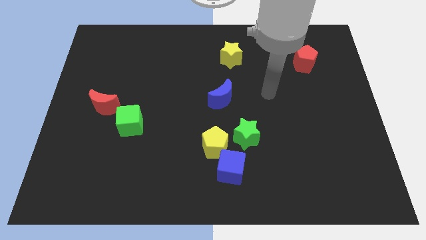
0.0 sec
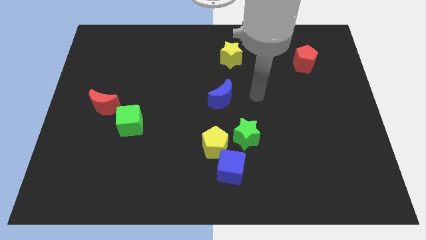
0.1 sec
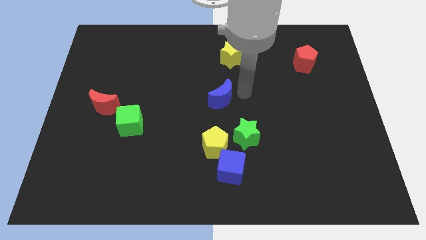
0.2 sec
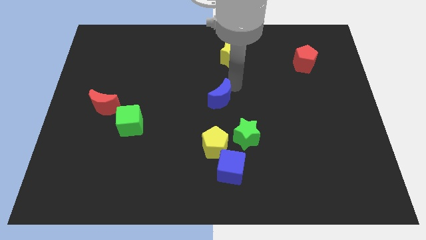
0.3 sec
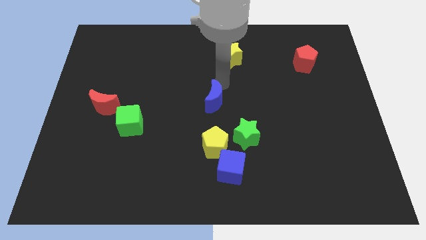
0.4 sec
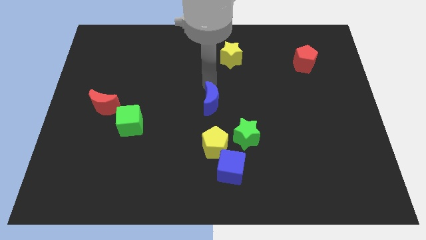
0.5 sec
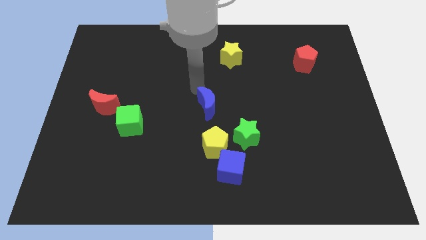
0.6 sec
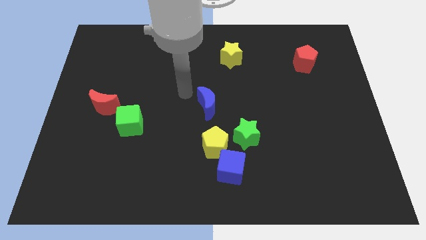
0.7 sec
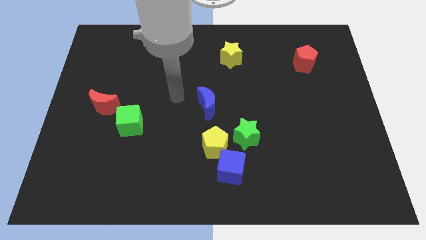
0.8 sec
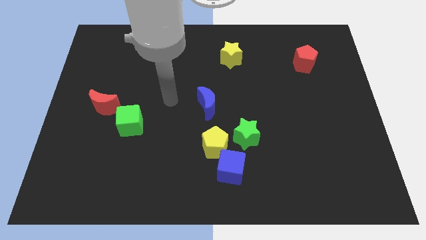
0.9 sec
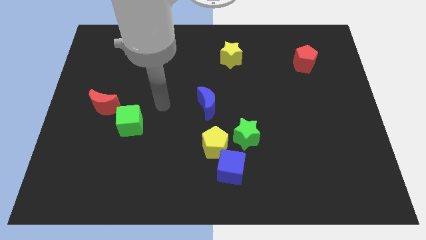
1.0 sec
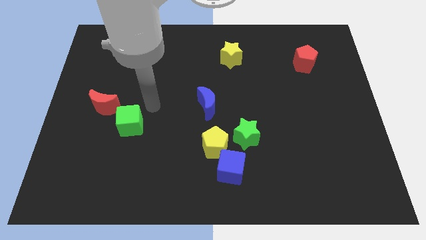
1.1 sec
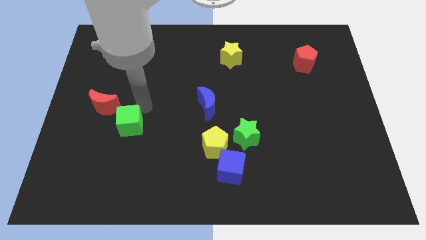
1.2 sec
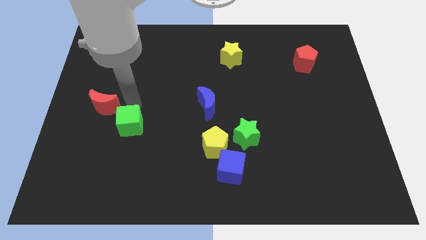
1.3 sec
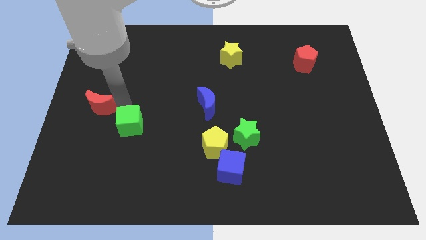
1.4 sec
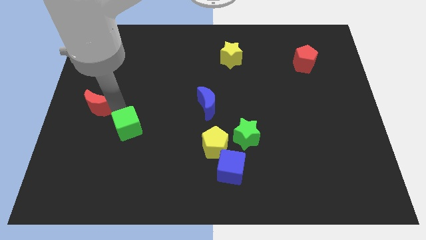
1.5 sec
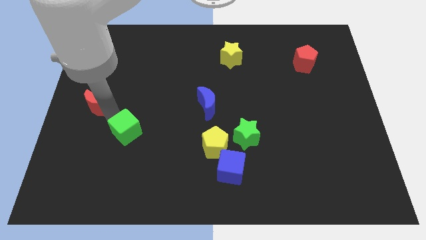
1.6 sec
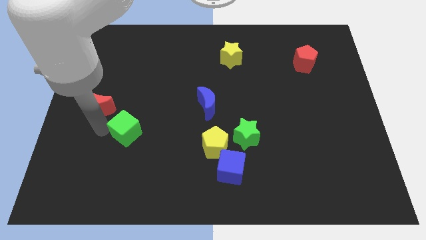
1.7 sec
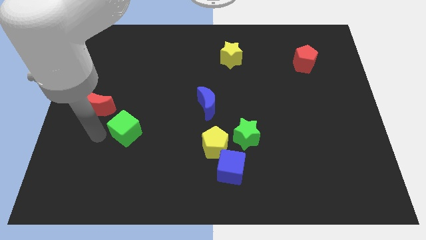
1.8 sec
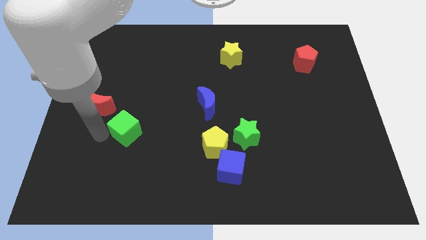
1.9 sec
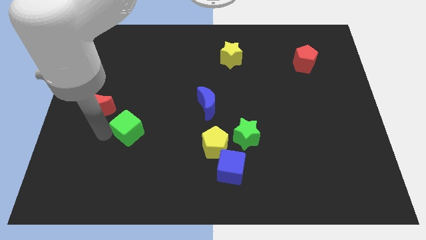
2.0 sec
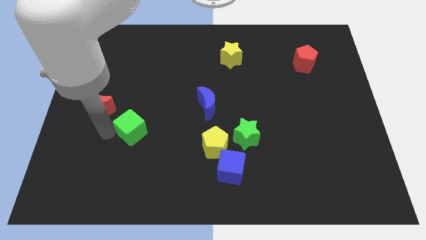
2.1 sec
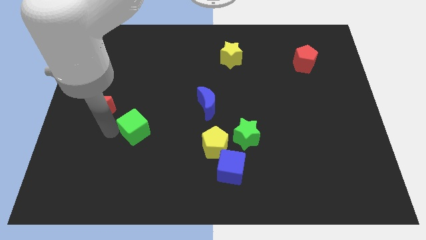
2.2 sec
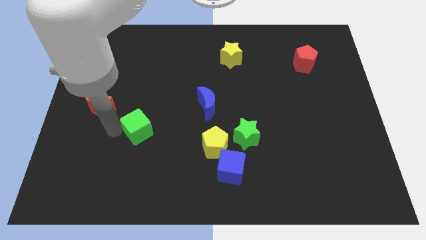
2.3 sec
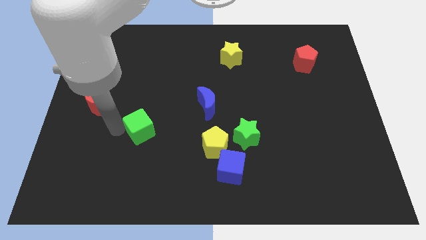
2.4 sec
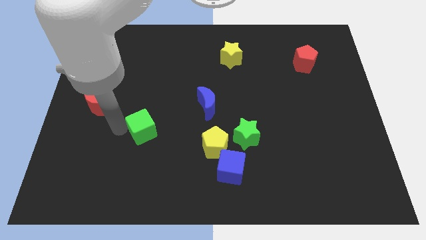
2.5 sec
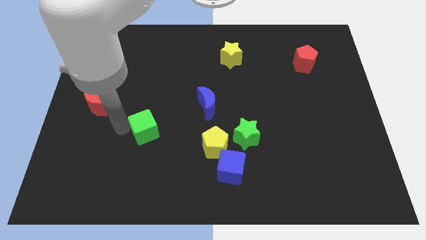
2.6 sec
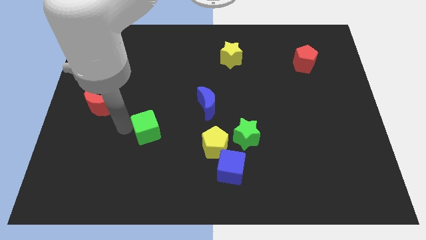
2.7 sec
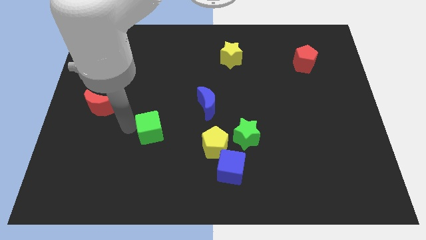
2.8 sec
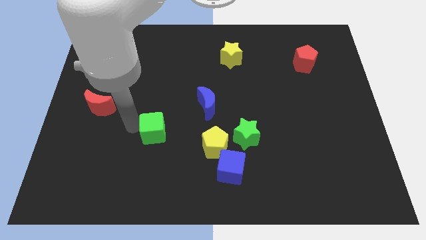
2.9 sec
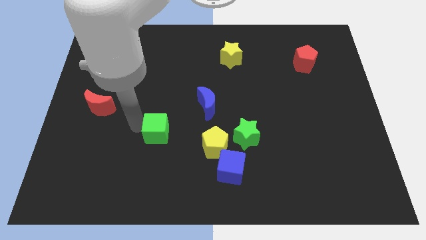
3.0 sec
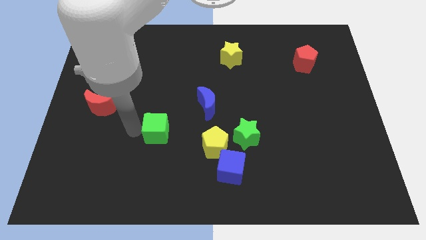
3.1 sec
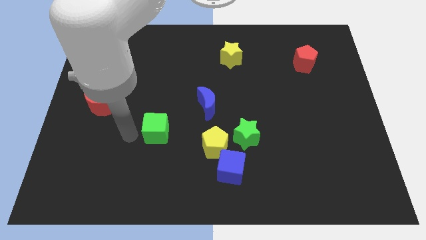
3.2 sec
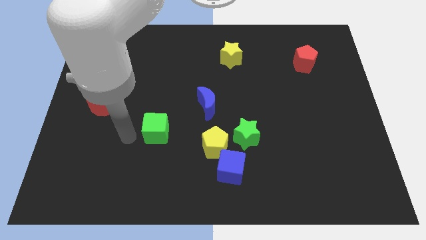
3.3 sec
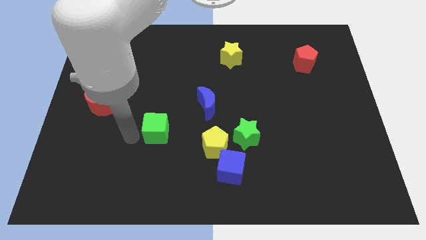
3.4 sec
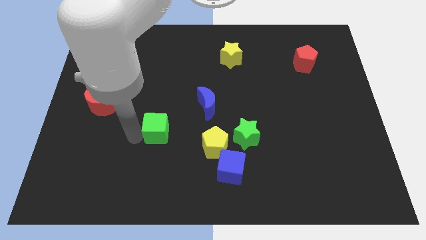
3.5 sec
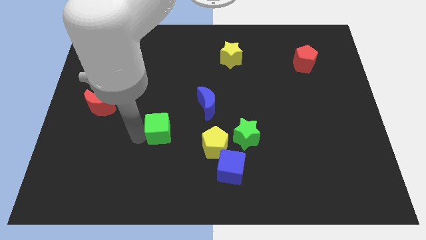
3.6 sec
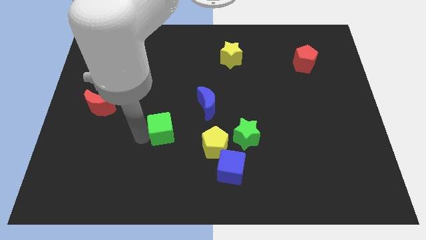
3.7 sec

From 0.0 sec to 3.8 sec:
slightly move the green cube to the right

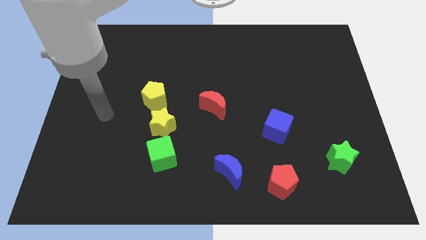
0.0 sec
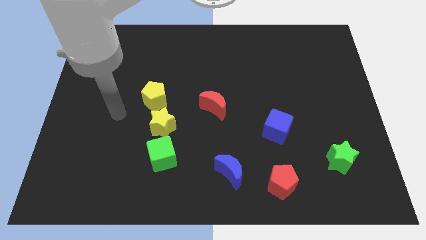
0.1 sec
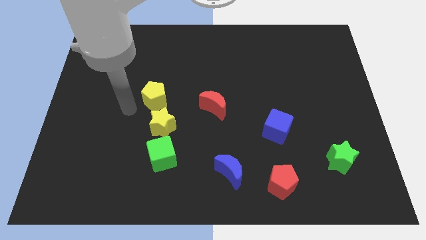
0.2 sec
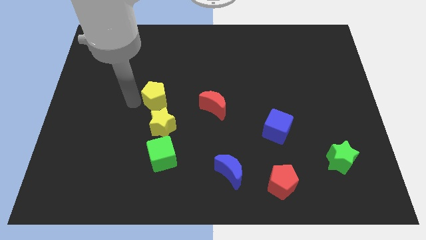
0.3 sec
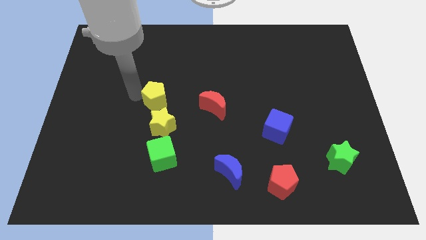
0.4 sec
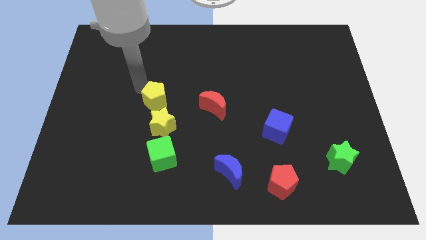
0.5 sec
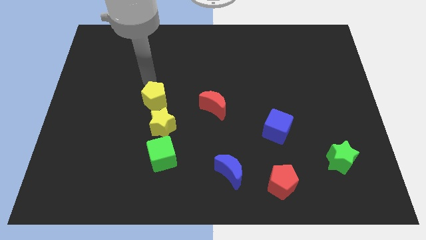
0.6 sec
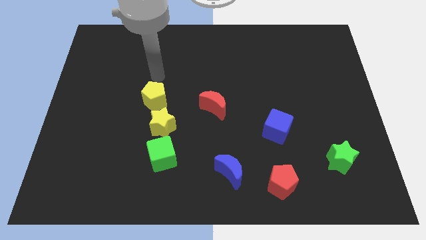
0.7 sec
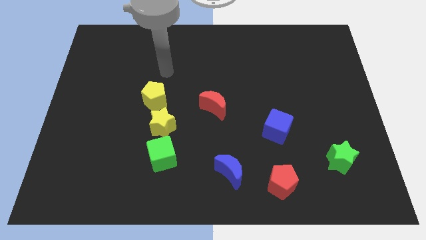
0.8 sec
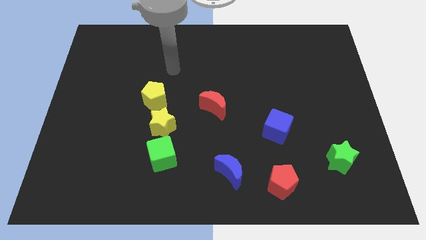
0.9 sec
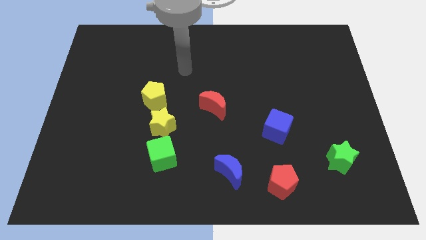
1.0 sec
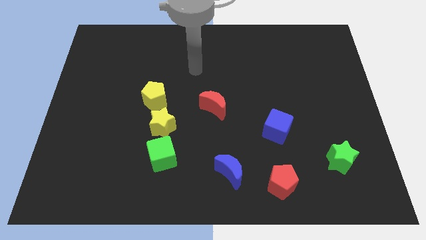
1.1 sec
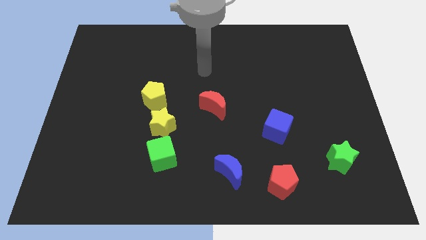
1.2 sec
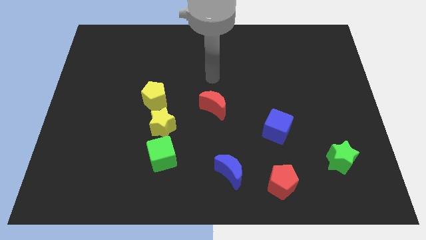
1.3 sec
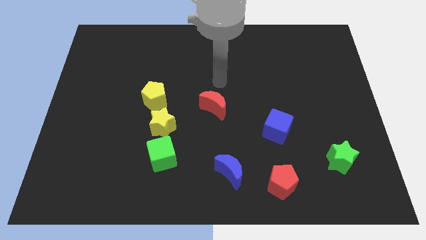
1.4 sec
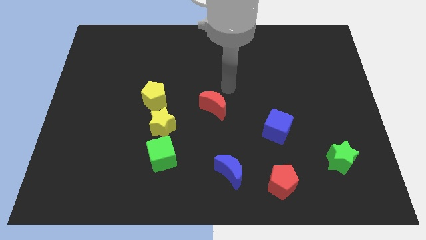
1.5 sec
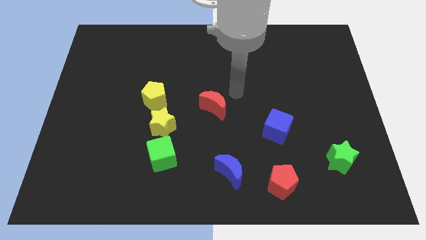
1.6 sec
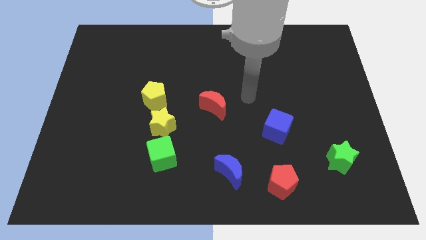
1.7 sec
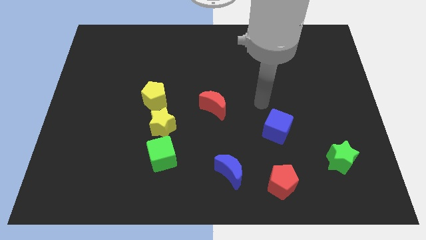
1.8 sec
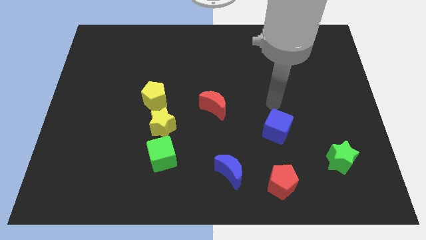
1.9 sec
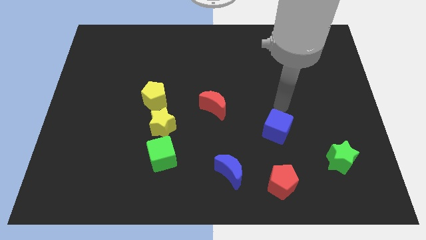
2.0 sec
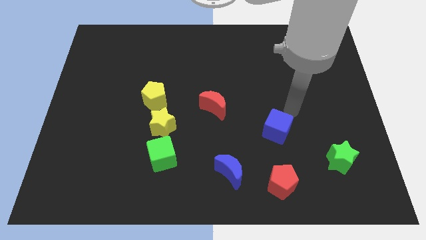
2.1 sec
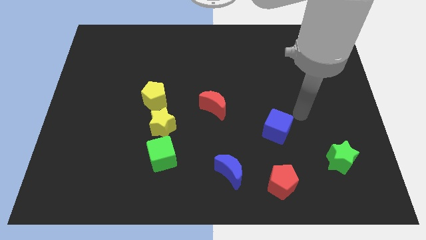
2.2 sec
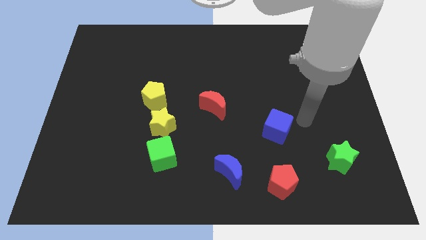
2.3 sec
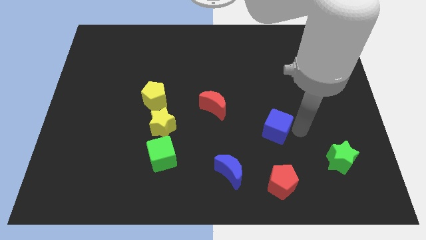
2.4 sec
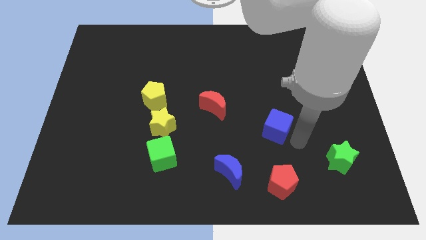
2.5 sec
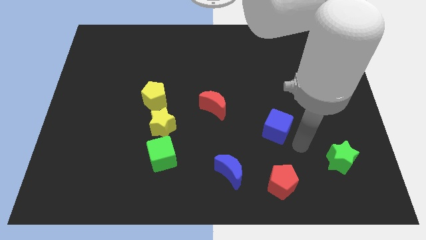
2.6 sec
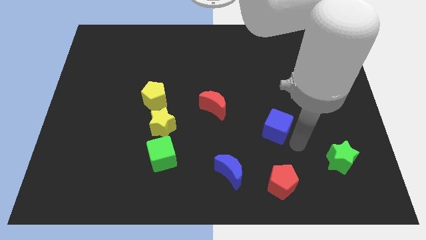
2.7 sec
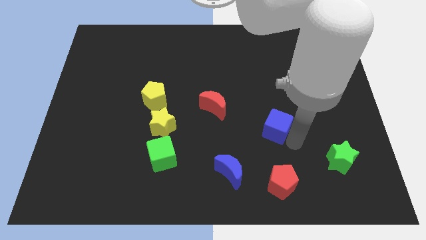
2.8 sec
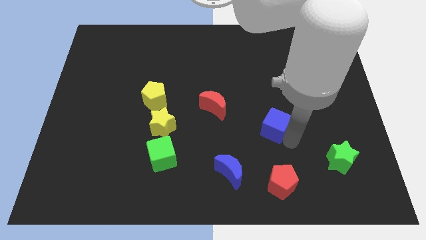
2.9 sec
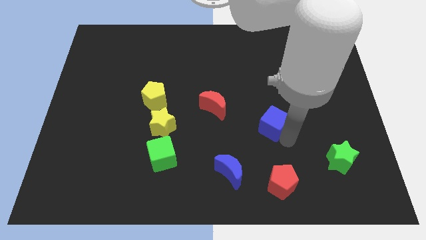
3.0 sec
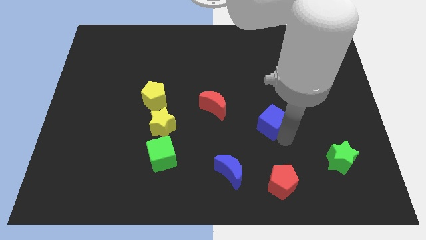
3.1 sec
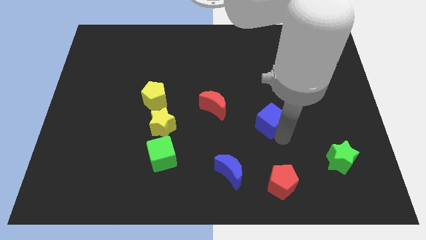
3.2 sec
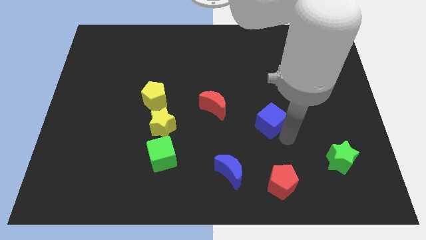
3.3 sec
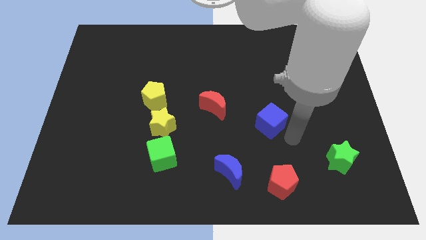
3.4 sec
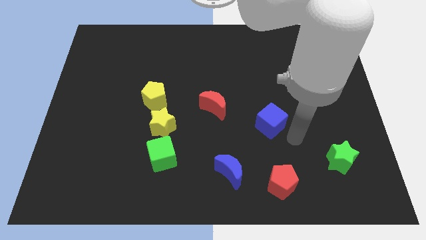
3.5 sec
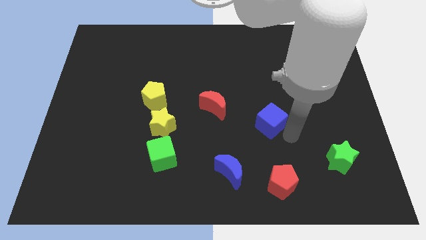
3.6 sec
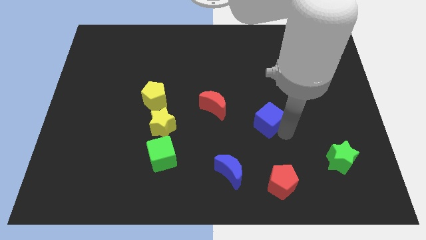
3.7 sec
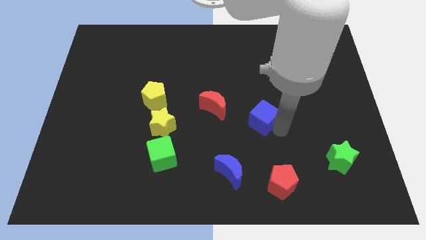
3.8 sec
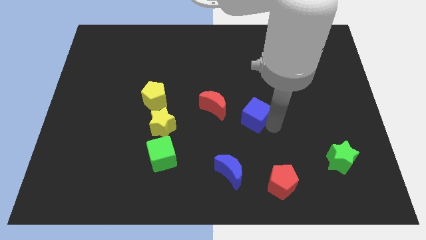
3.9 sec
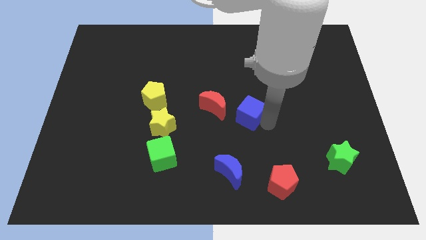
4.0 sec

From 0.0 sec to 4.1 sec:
slide the blue cube a bit diagonally up and left
